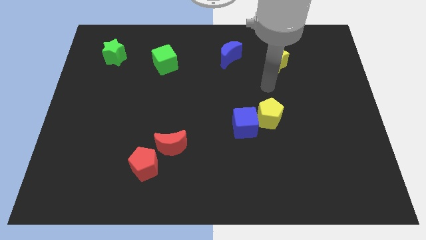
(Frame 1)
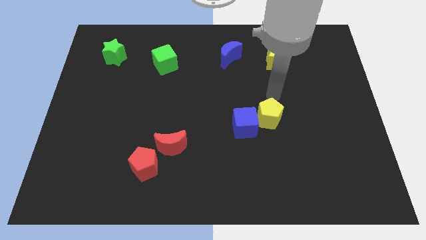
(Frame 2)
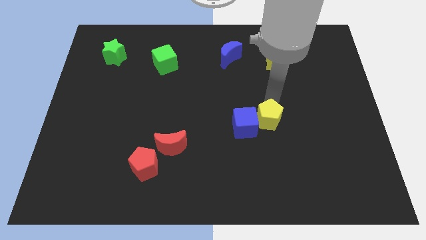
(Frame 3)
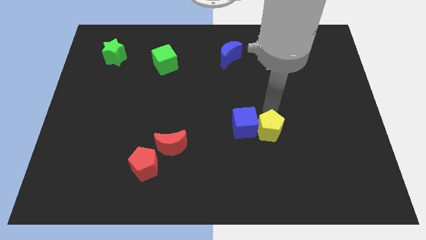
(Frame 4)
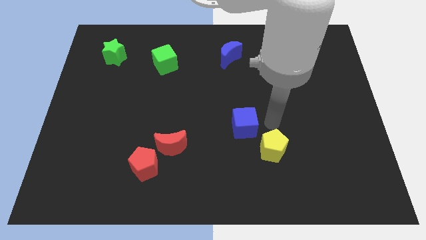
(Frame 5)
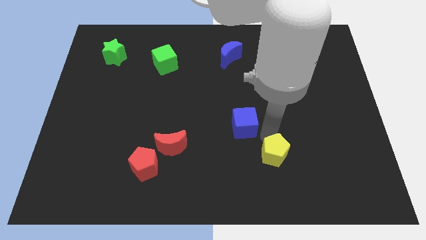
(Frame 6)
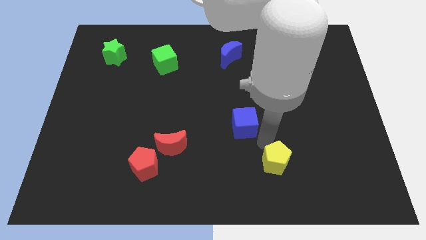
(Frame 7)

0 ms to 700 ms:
separate the blue cube from the yellow pentagon

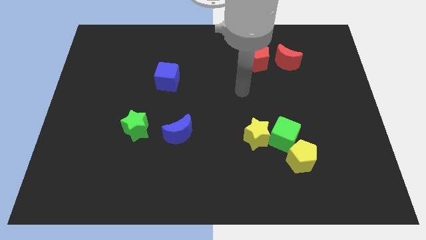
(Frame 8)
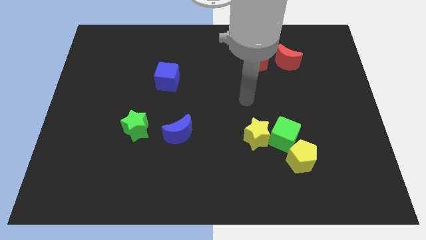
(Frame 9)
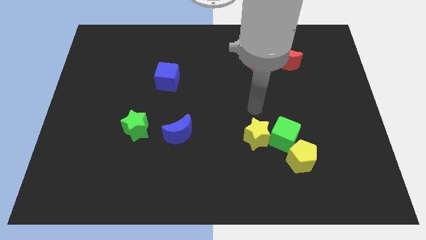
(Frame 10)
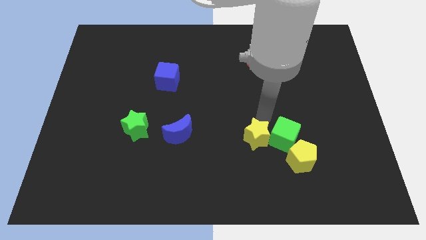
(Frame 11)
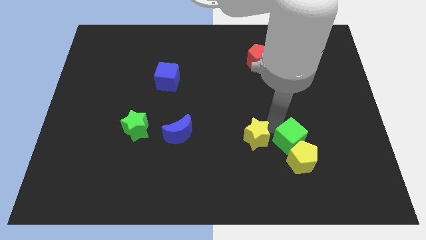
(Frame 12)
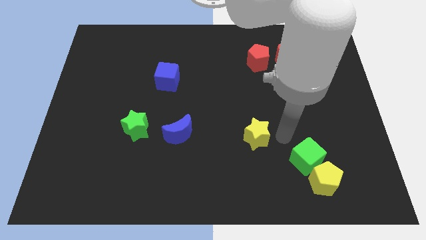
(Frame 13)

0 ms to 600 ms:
separate the yellow star from the green cube

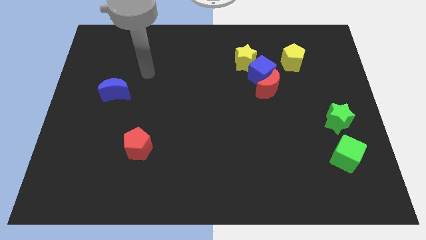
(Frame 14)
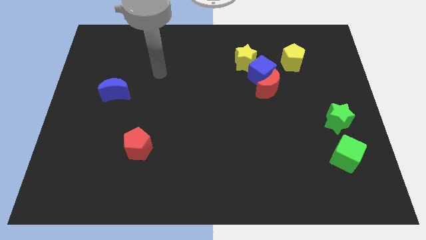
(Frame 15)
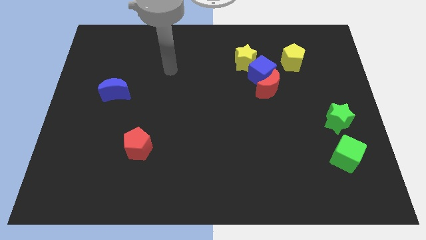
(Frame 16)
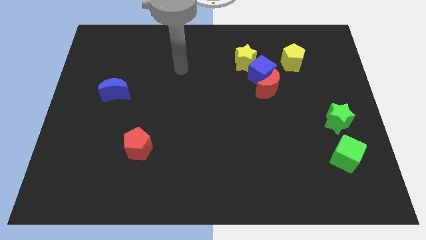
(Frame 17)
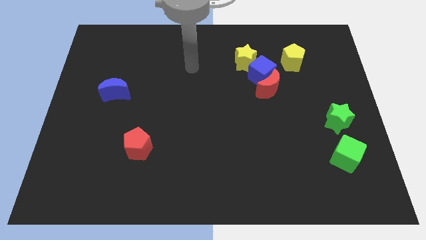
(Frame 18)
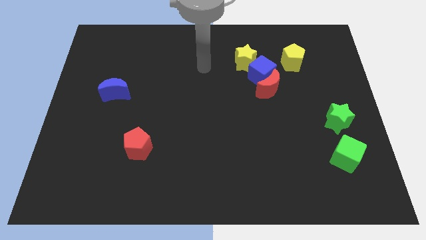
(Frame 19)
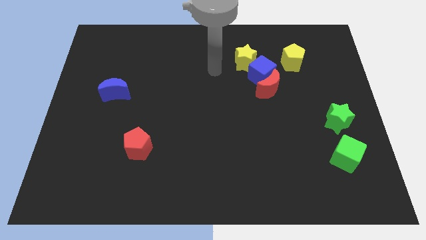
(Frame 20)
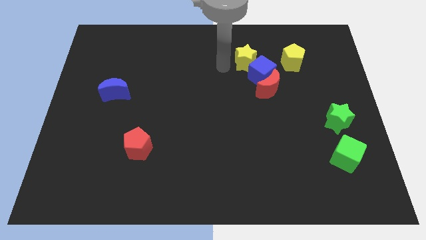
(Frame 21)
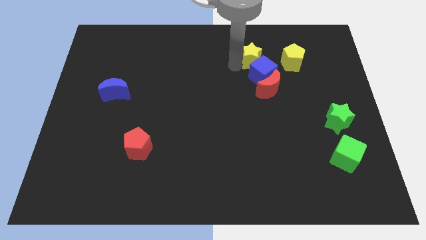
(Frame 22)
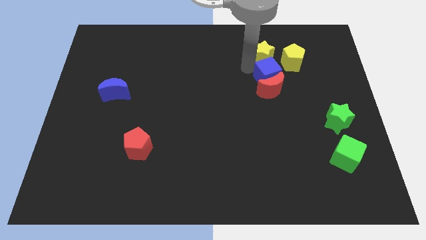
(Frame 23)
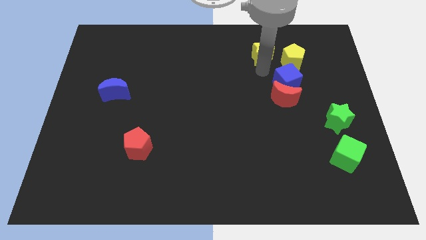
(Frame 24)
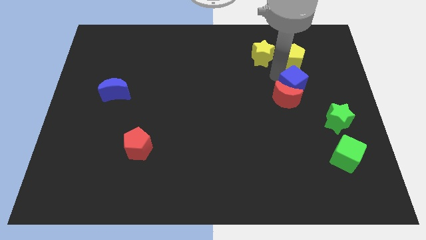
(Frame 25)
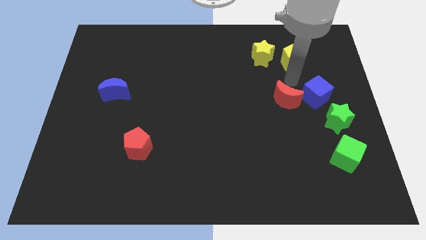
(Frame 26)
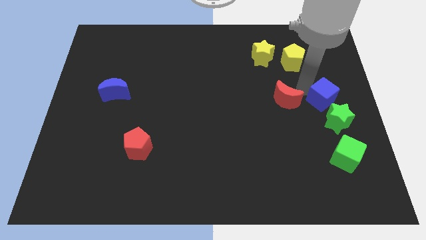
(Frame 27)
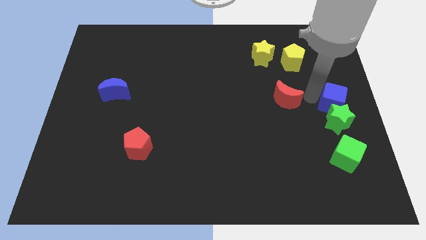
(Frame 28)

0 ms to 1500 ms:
pull the red moon apart from the blue cube

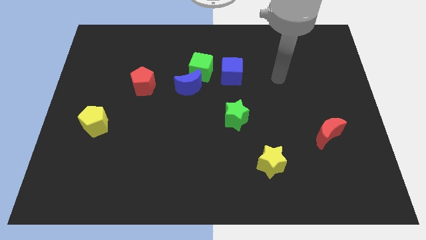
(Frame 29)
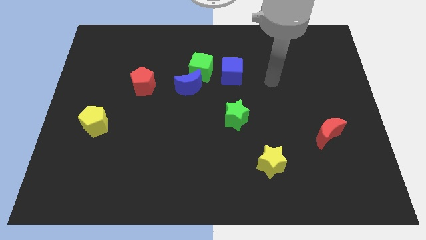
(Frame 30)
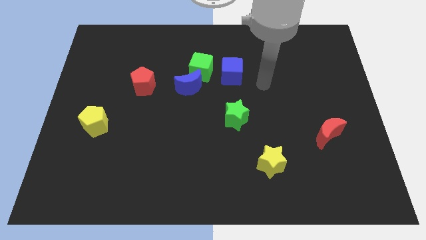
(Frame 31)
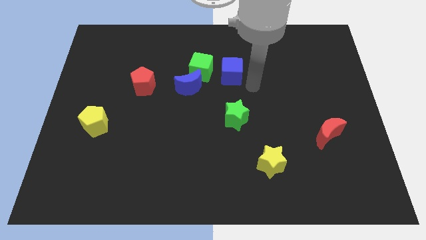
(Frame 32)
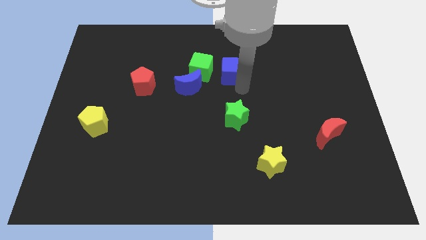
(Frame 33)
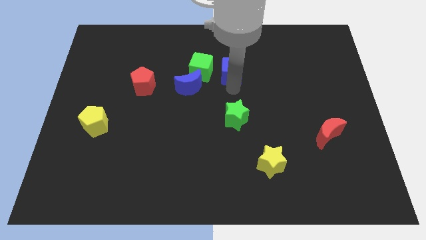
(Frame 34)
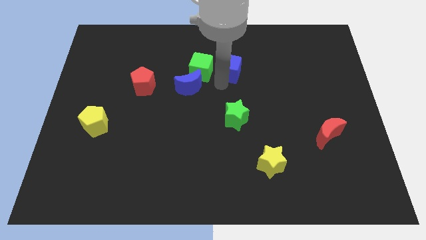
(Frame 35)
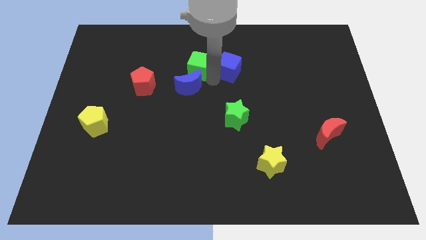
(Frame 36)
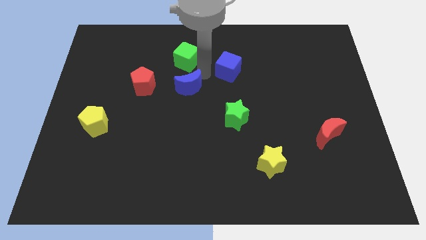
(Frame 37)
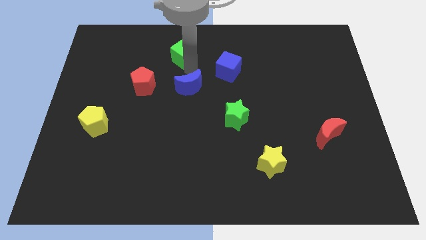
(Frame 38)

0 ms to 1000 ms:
separate the blue moon from the green cube

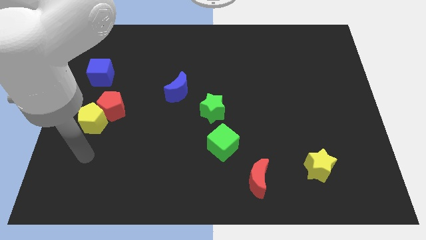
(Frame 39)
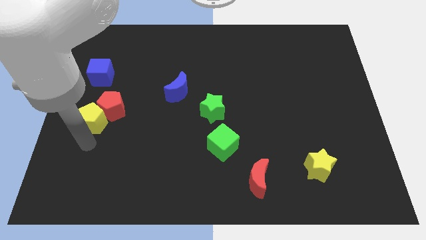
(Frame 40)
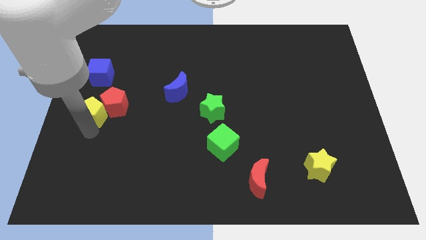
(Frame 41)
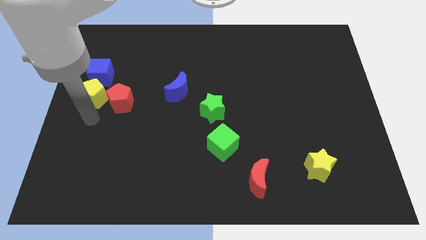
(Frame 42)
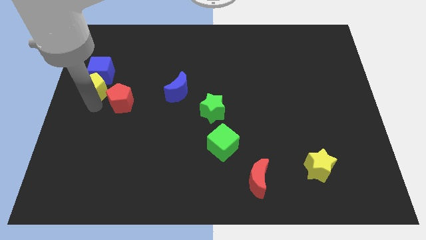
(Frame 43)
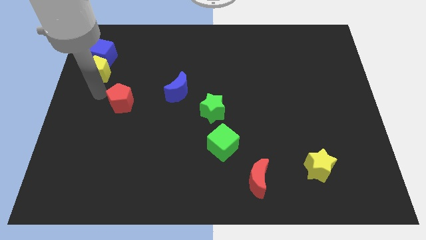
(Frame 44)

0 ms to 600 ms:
move the red pentagon away from the yellow pentagon

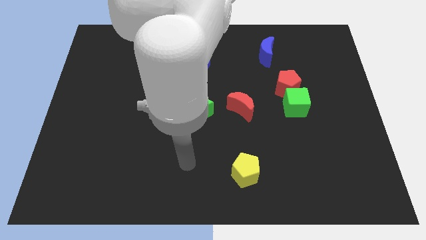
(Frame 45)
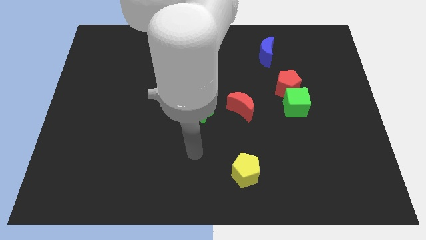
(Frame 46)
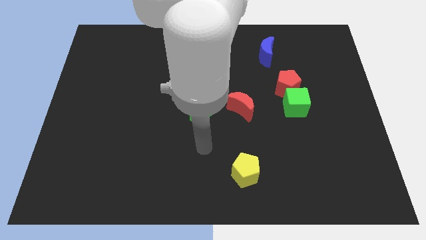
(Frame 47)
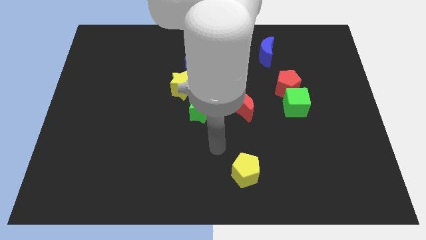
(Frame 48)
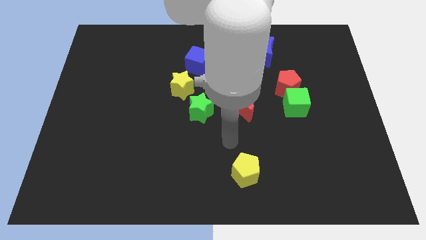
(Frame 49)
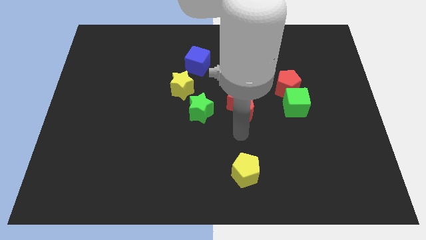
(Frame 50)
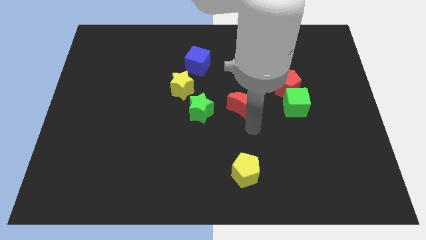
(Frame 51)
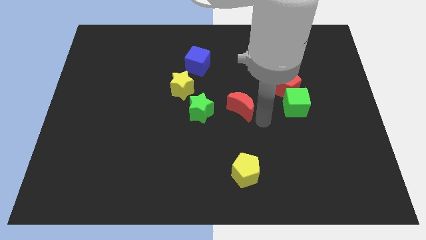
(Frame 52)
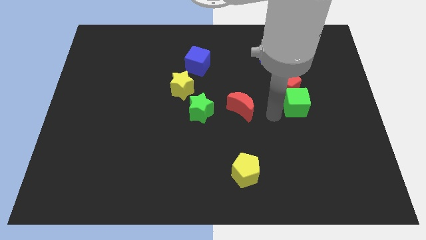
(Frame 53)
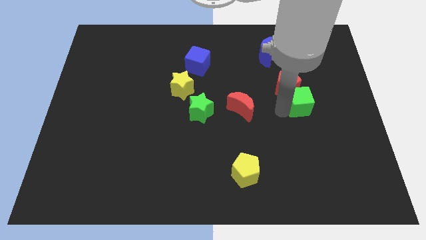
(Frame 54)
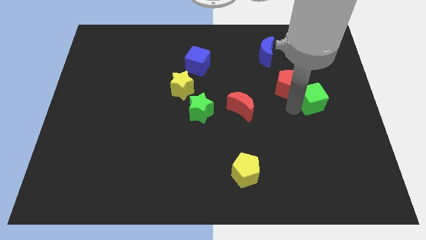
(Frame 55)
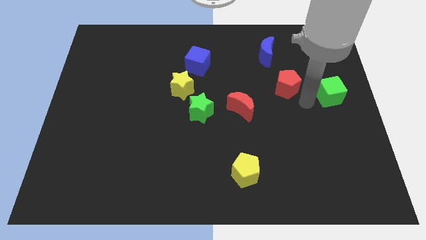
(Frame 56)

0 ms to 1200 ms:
move the red pentagon away from the green cube

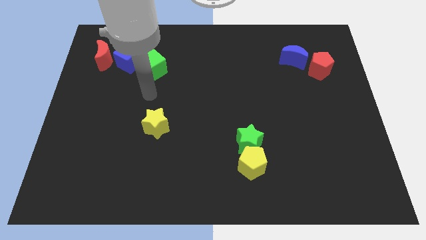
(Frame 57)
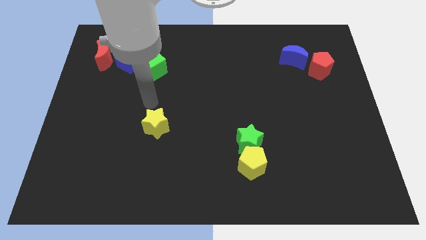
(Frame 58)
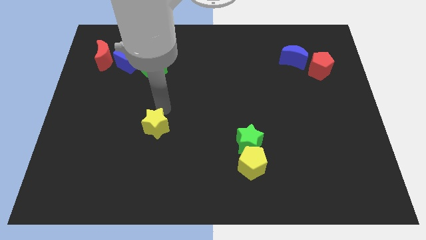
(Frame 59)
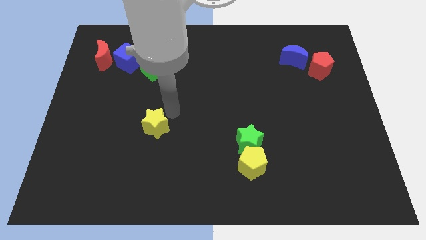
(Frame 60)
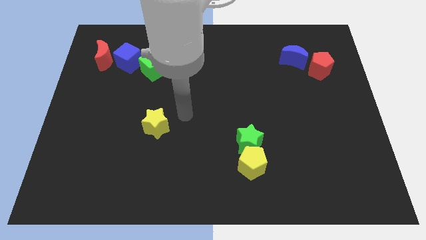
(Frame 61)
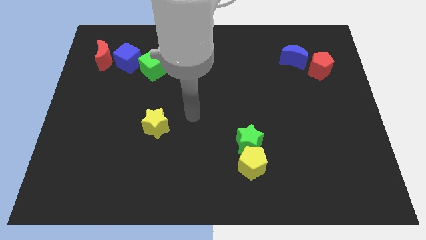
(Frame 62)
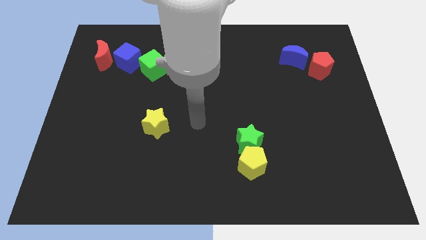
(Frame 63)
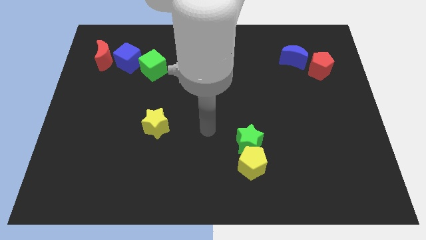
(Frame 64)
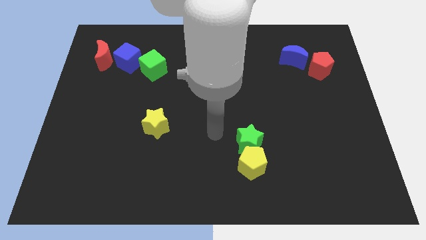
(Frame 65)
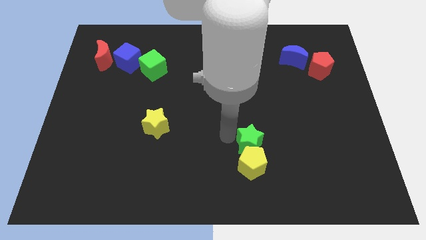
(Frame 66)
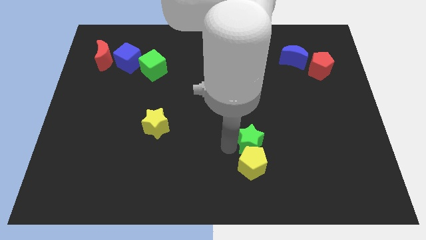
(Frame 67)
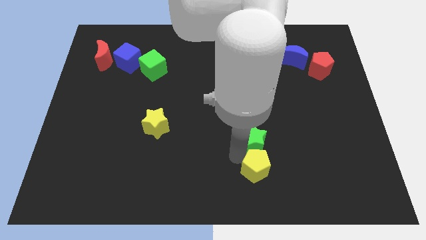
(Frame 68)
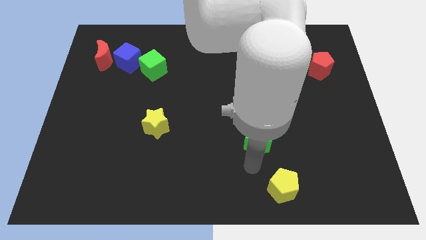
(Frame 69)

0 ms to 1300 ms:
move the green star away from the yellow pentagon

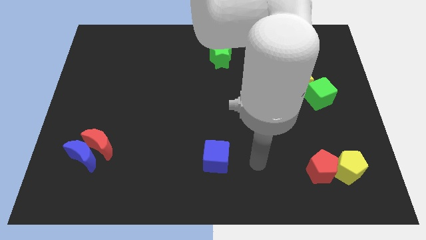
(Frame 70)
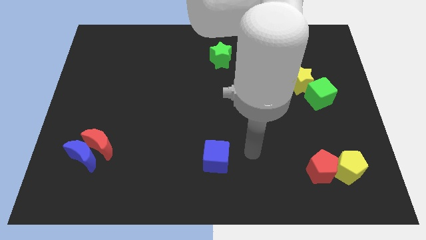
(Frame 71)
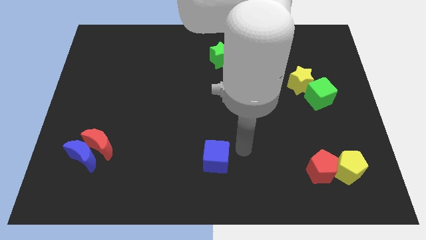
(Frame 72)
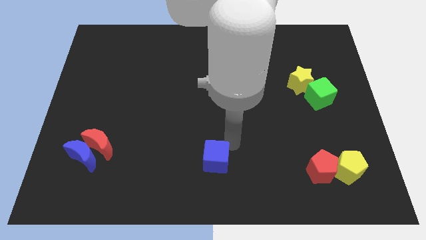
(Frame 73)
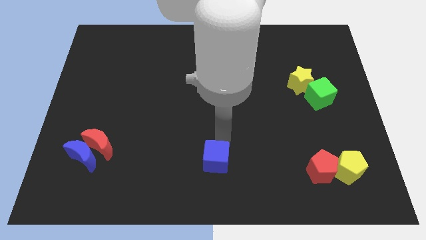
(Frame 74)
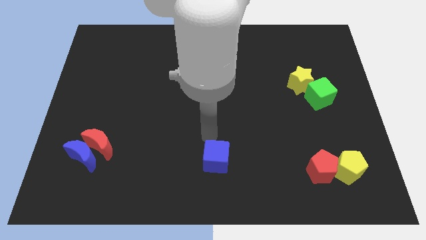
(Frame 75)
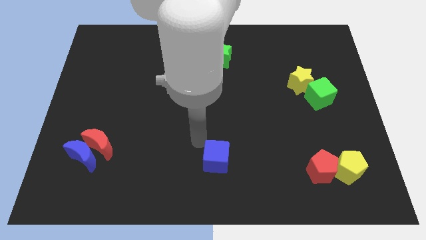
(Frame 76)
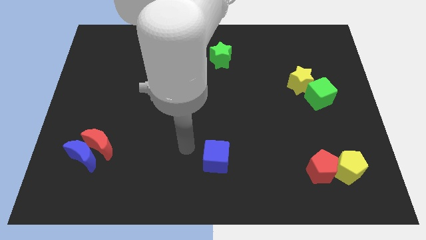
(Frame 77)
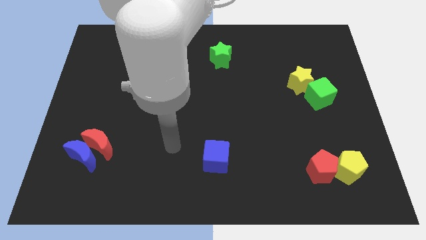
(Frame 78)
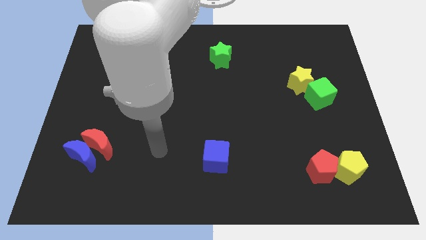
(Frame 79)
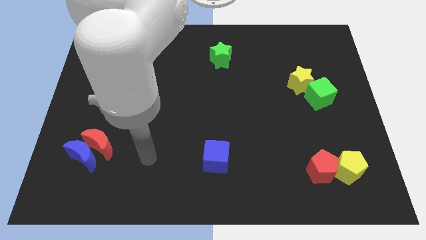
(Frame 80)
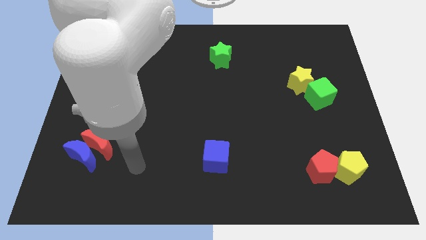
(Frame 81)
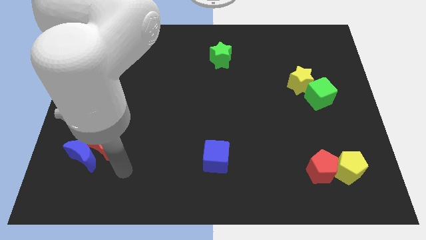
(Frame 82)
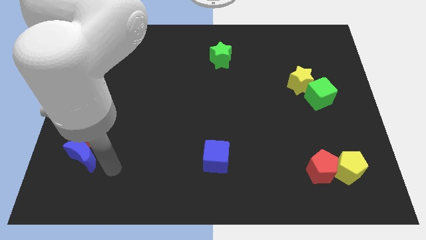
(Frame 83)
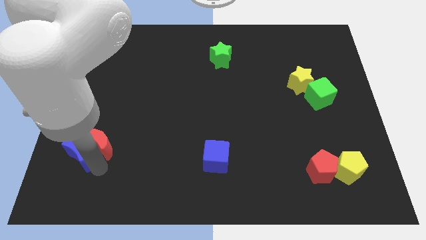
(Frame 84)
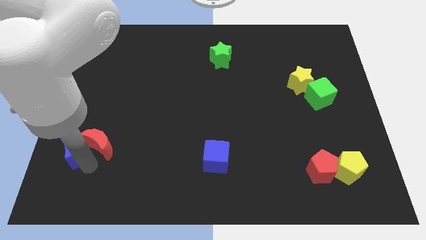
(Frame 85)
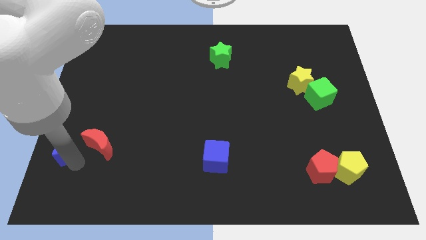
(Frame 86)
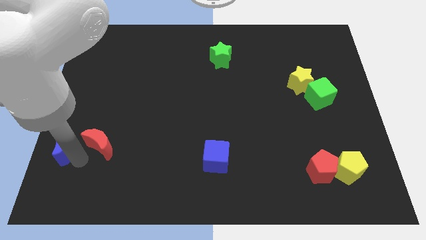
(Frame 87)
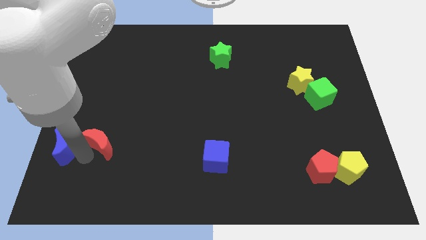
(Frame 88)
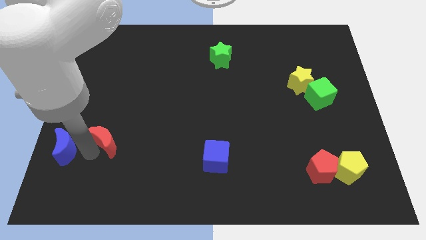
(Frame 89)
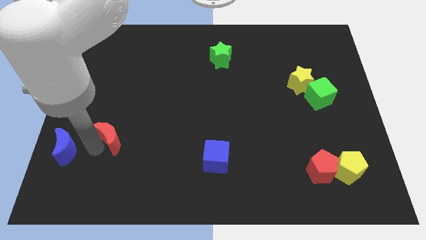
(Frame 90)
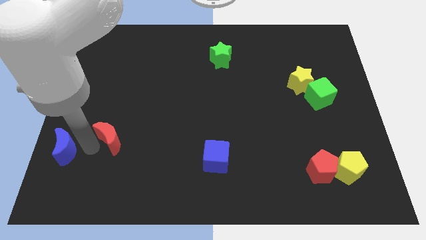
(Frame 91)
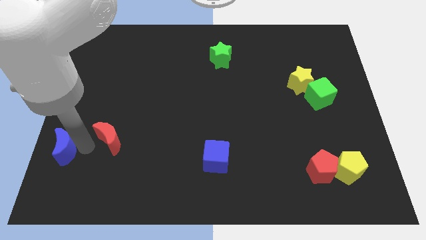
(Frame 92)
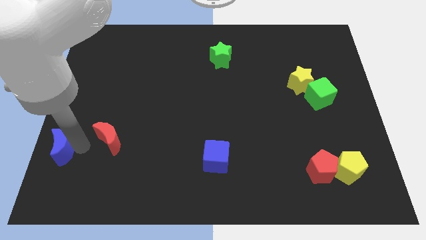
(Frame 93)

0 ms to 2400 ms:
pull the red moon apart from the blue moon
